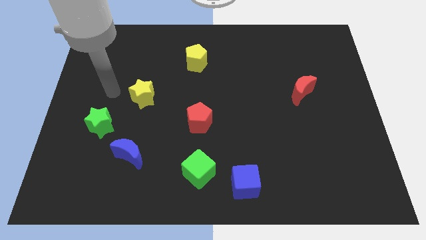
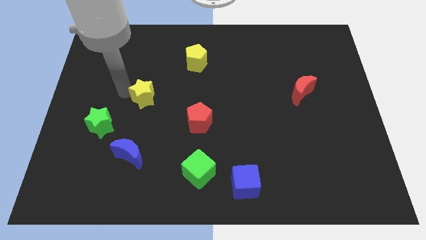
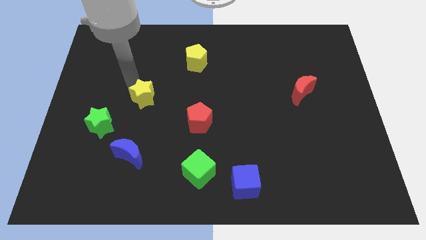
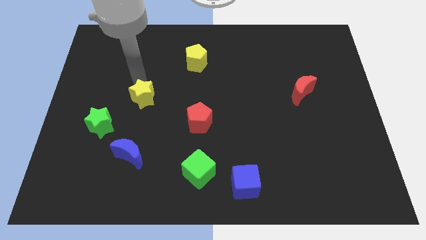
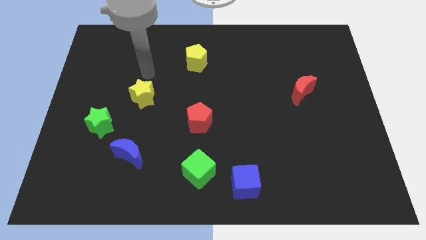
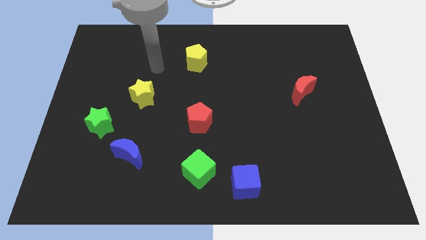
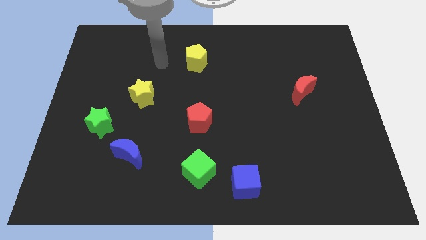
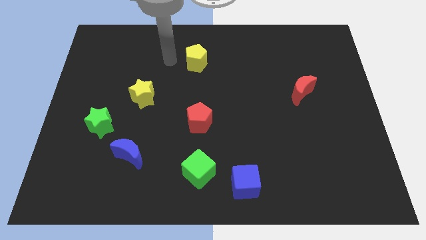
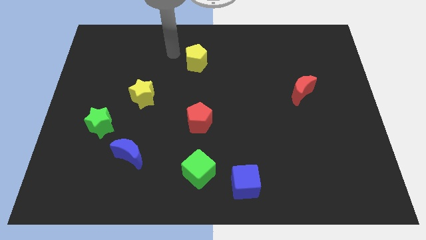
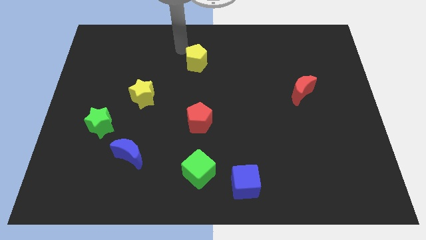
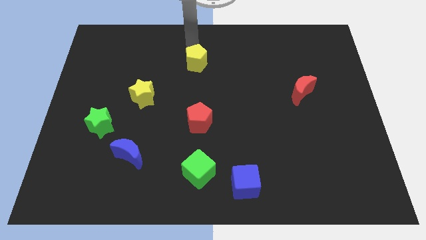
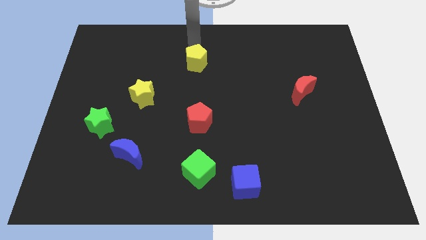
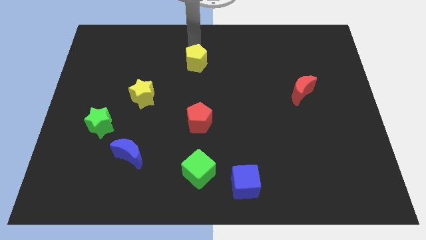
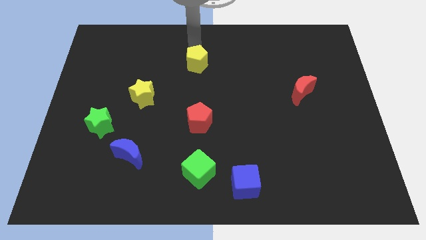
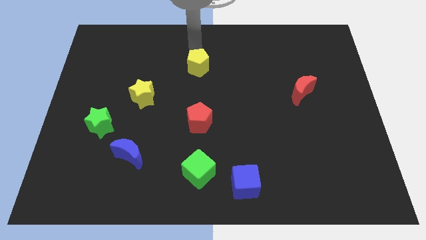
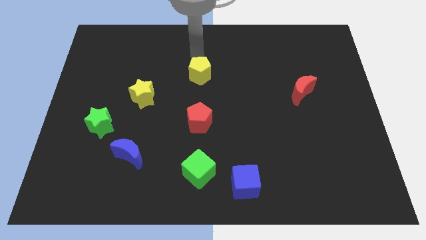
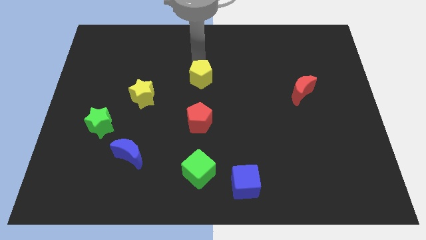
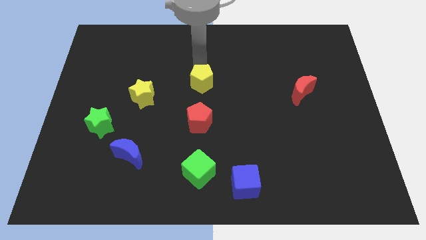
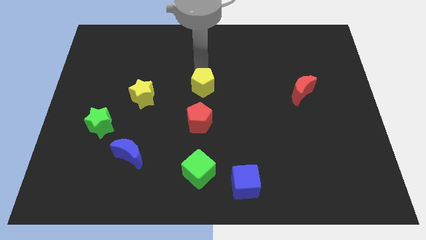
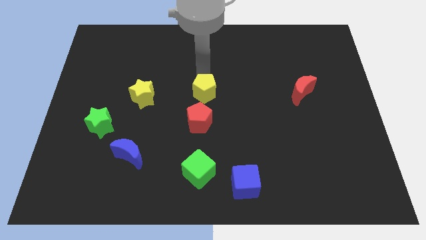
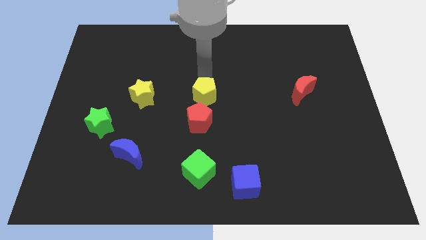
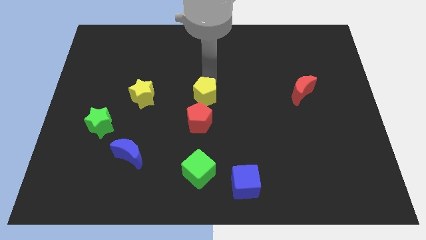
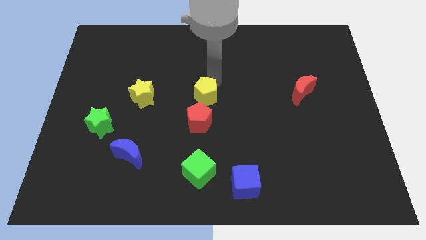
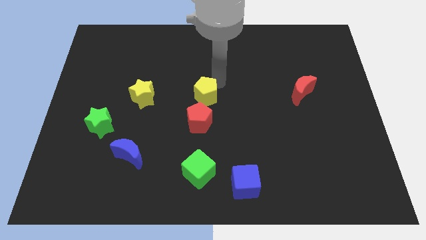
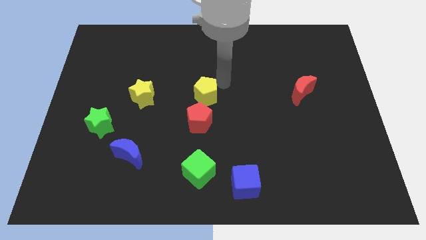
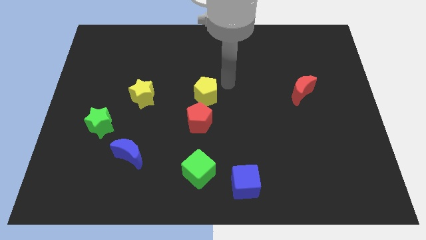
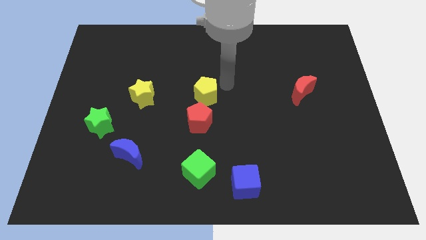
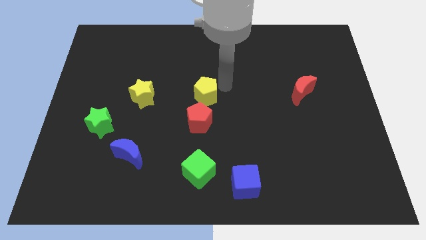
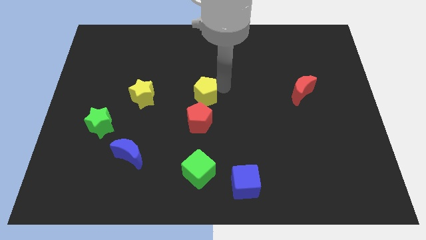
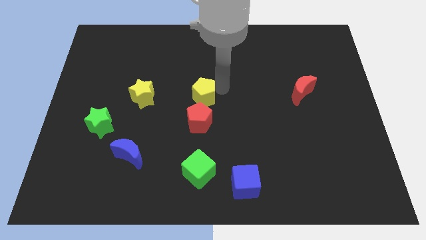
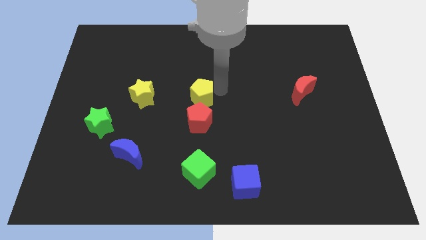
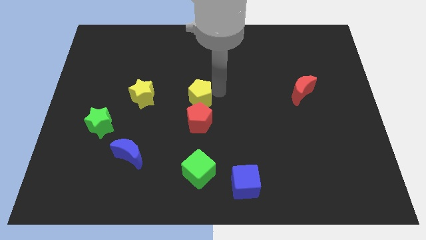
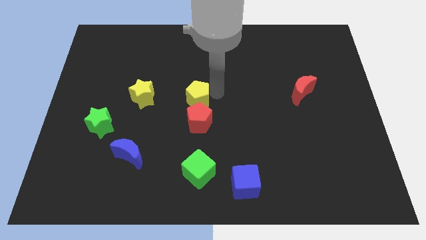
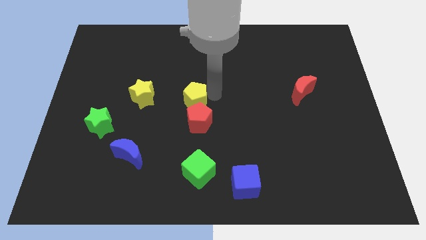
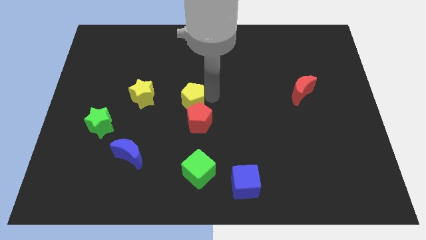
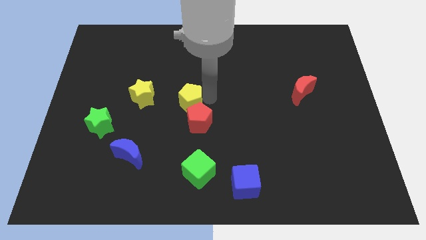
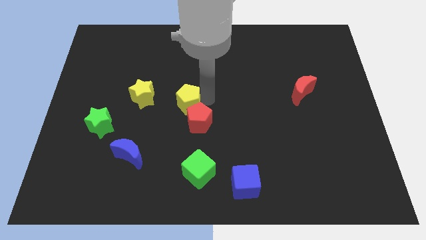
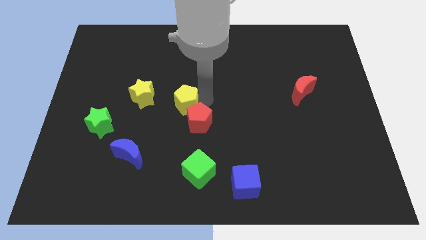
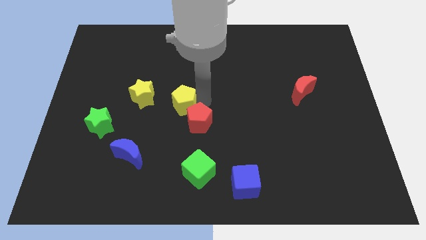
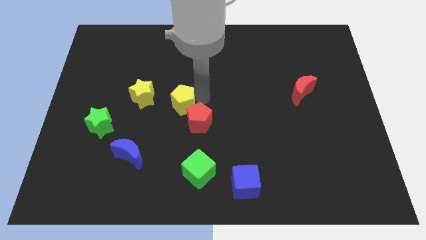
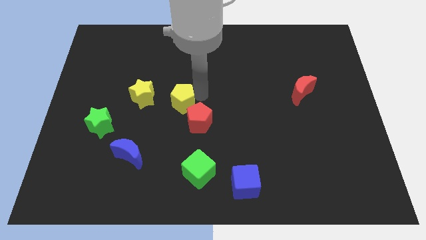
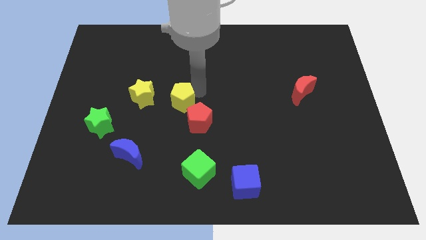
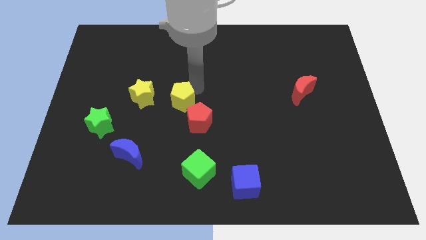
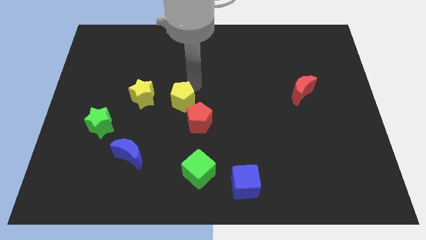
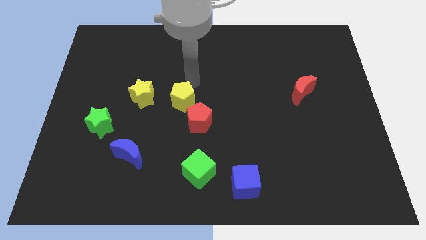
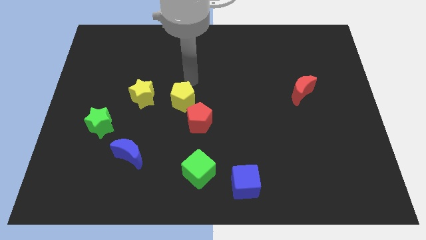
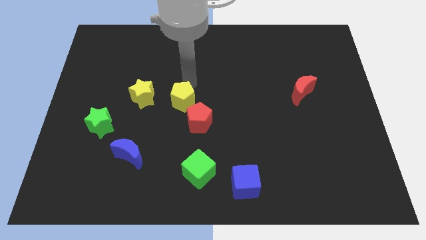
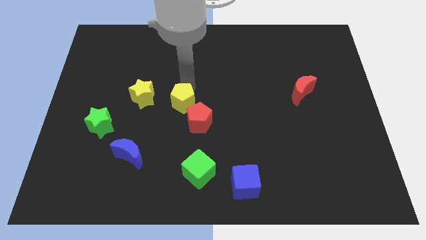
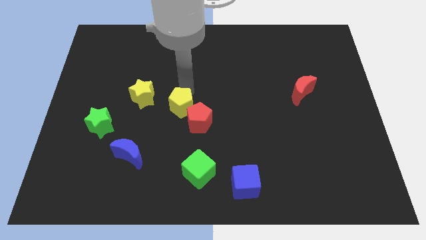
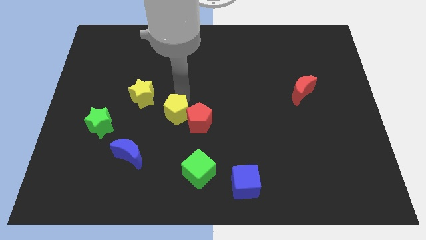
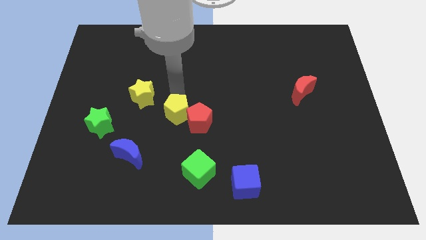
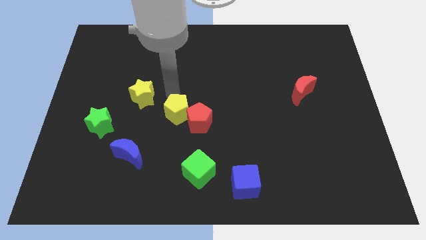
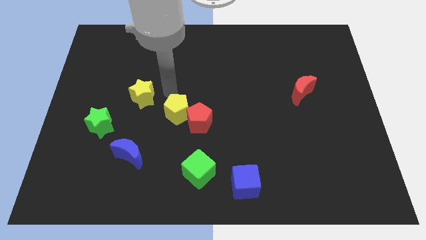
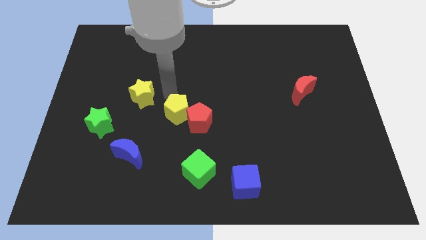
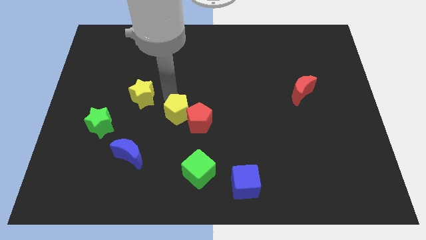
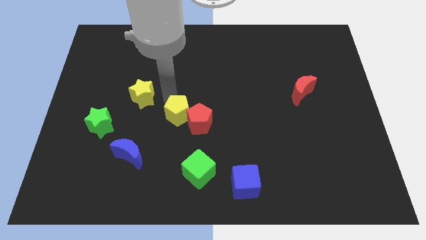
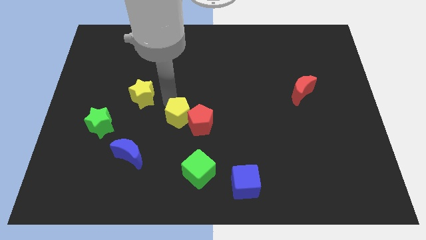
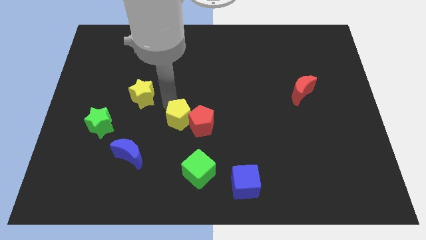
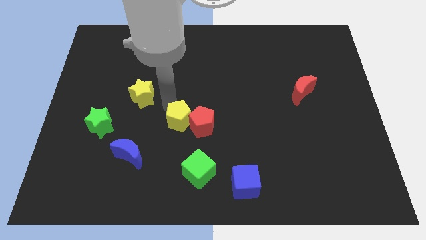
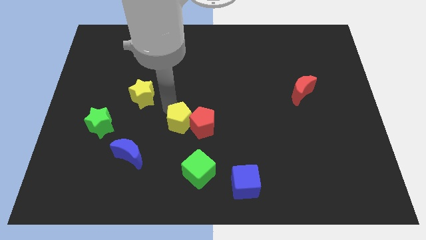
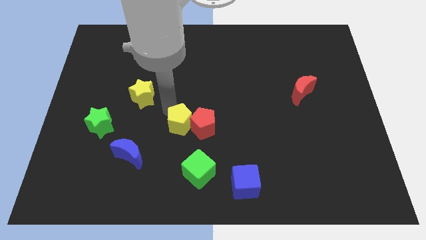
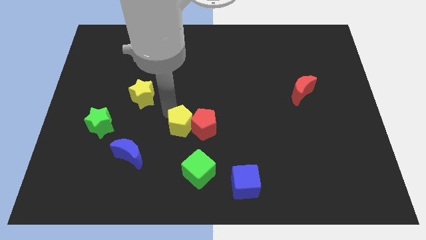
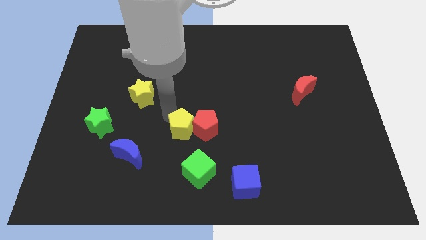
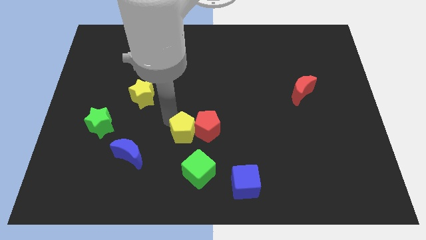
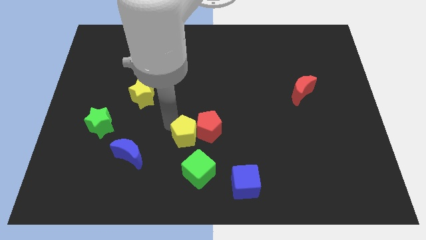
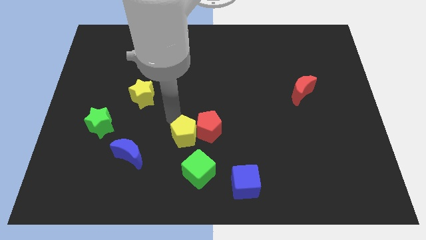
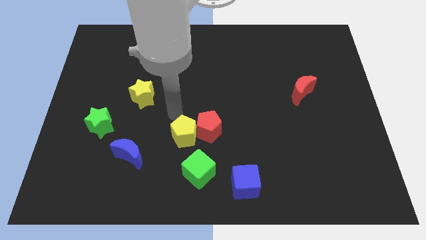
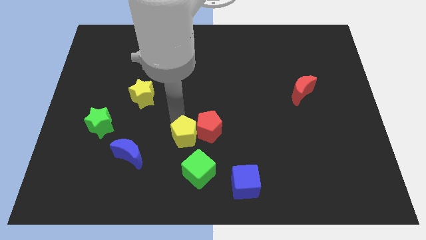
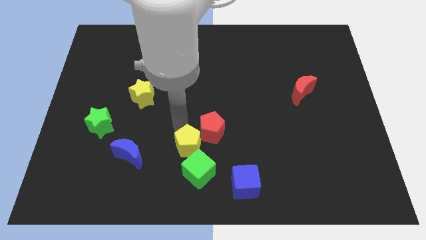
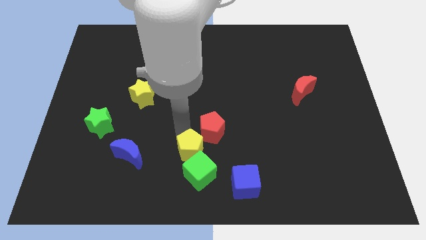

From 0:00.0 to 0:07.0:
put the yellow pentagon next to the green cube
